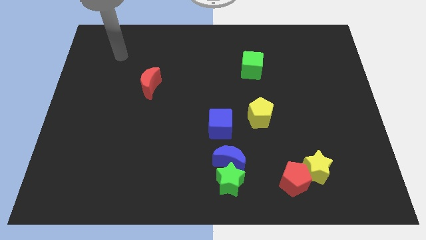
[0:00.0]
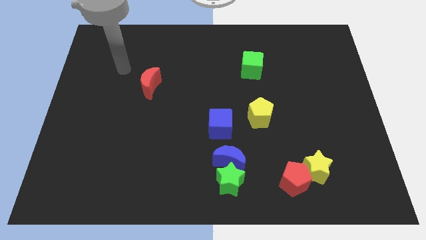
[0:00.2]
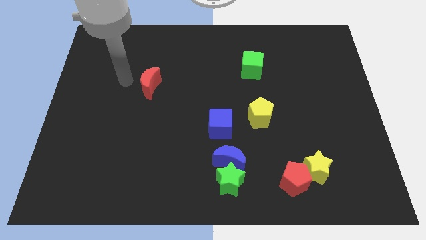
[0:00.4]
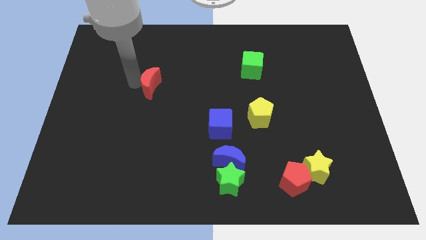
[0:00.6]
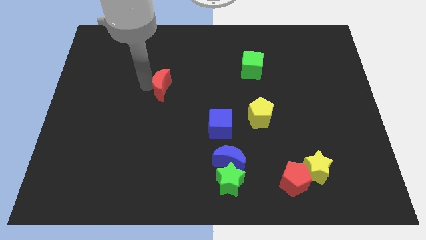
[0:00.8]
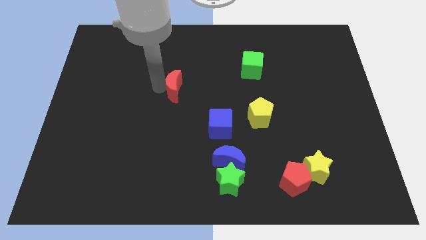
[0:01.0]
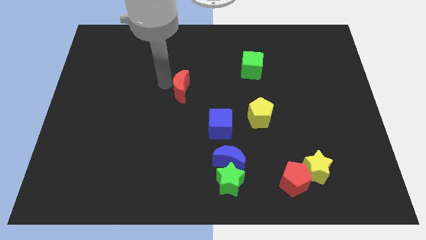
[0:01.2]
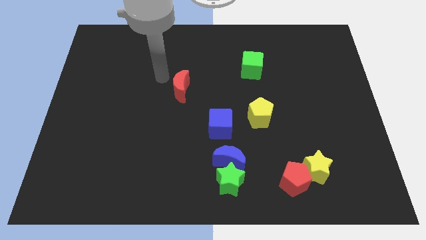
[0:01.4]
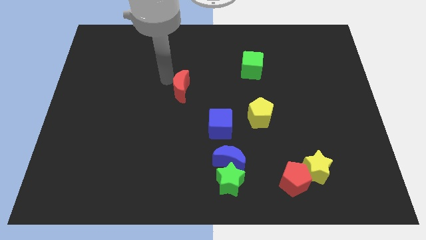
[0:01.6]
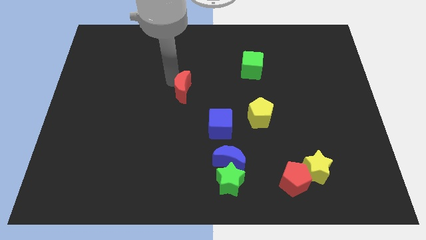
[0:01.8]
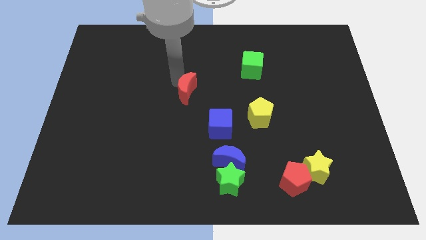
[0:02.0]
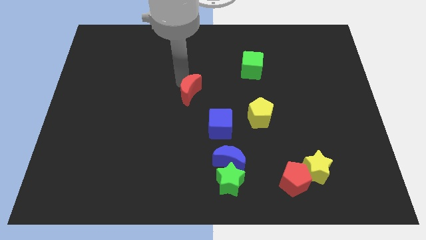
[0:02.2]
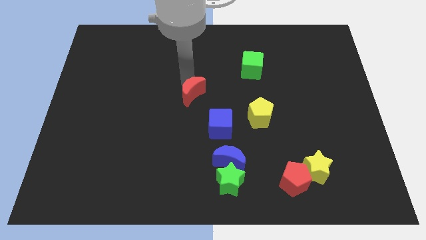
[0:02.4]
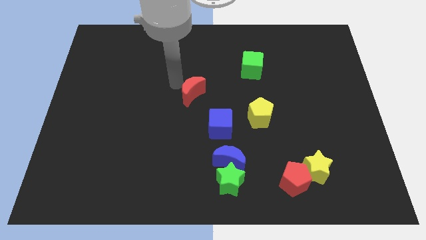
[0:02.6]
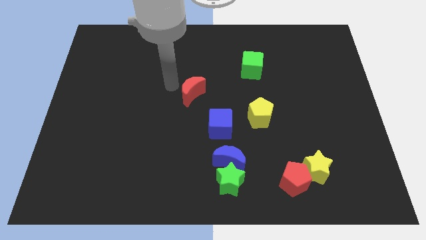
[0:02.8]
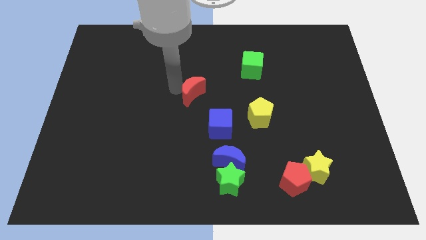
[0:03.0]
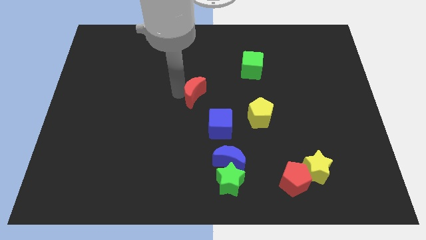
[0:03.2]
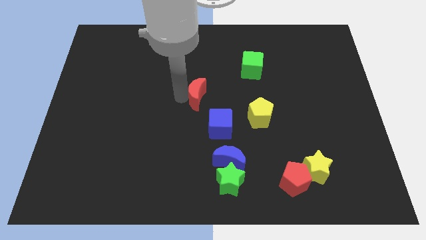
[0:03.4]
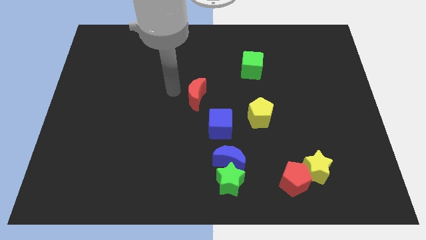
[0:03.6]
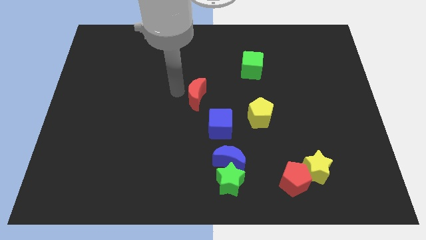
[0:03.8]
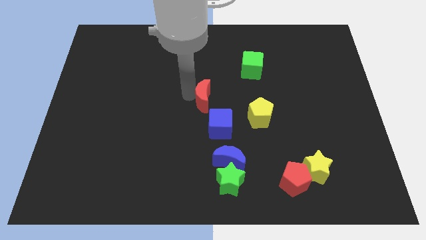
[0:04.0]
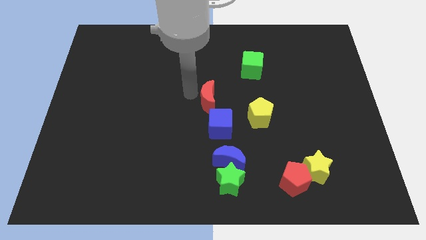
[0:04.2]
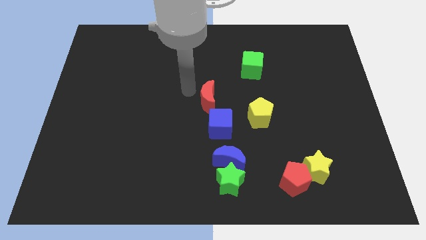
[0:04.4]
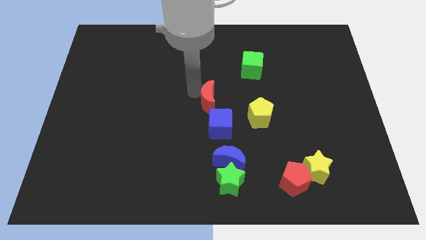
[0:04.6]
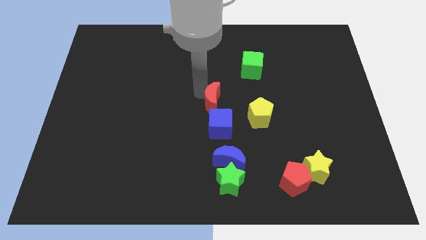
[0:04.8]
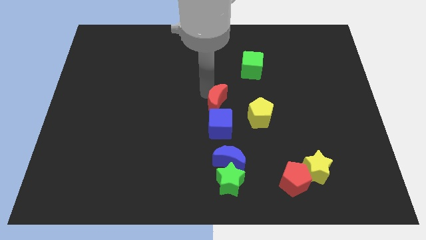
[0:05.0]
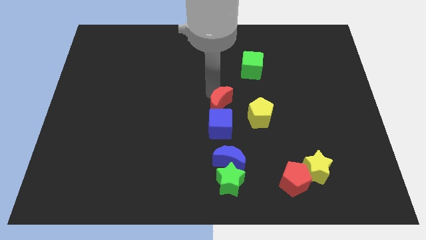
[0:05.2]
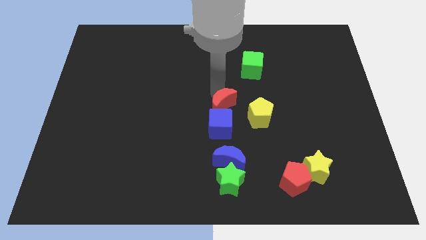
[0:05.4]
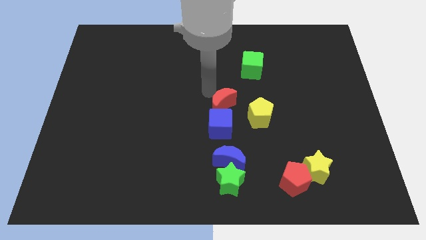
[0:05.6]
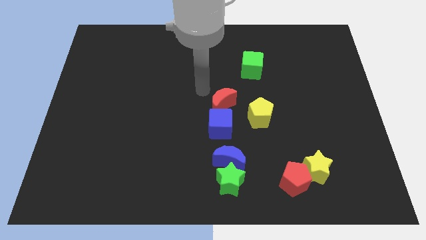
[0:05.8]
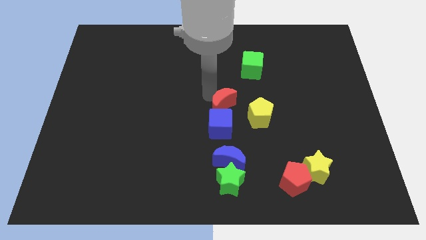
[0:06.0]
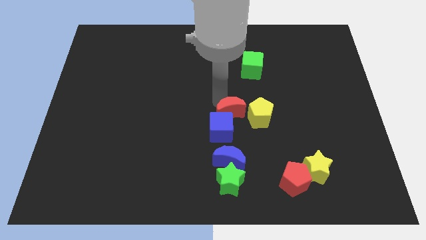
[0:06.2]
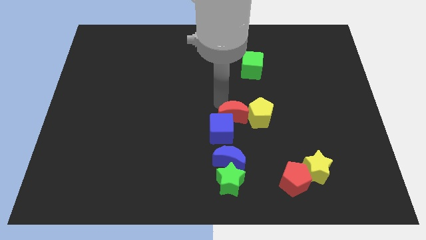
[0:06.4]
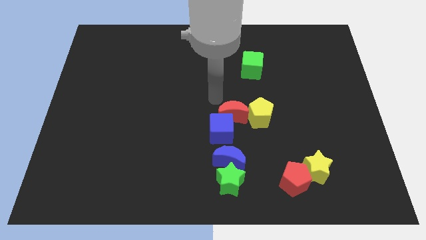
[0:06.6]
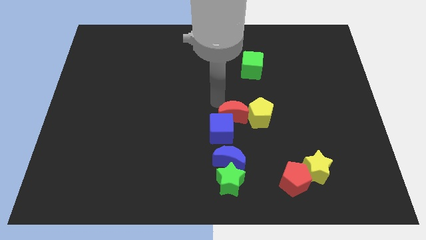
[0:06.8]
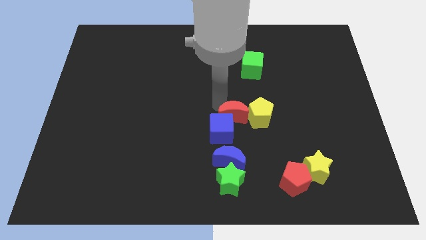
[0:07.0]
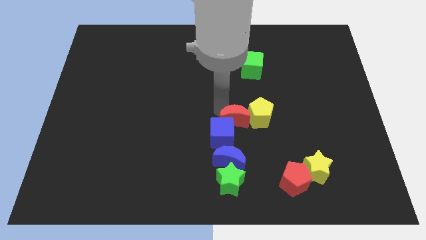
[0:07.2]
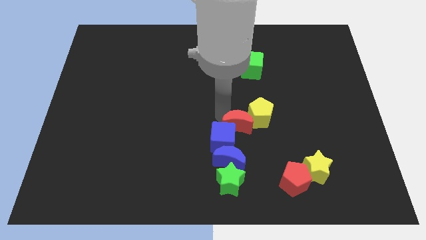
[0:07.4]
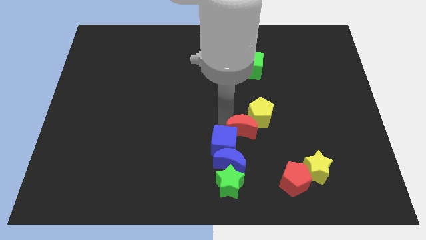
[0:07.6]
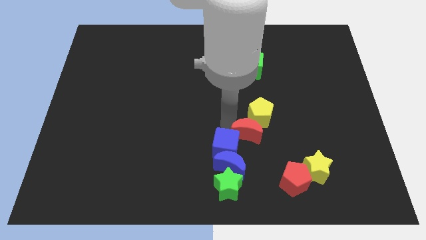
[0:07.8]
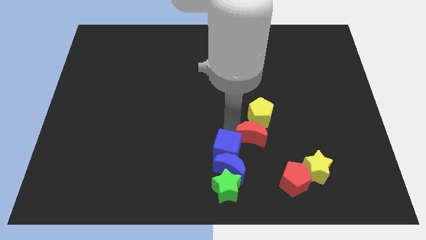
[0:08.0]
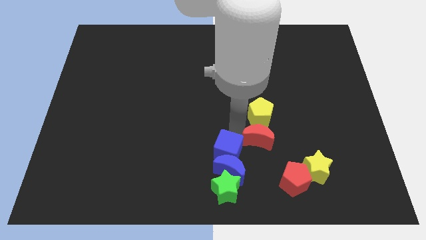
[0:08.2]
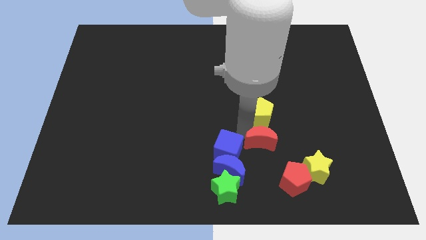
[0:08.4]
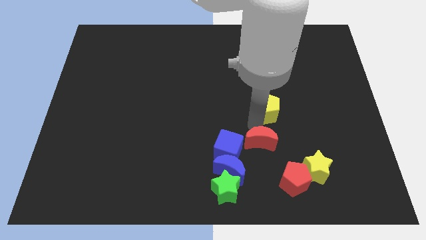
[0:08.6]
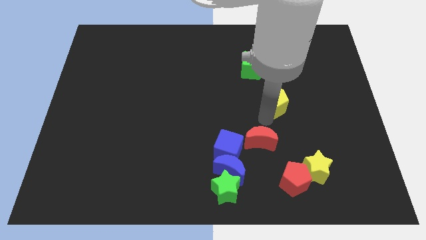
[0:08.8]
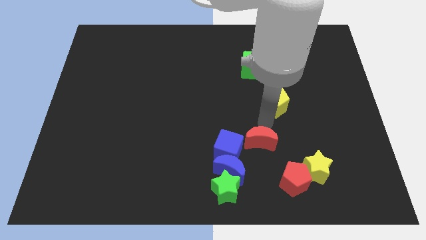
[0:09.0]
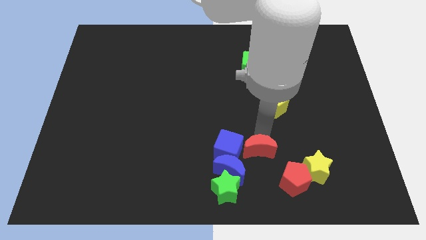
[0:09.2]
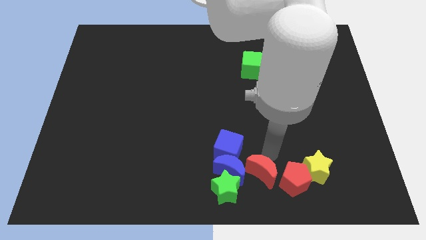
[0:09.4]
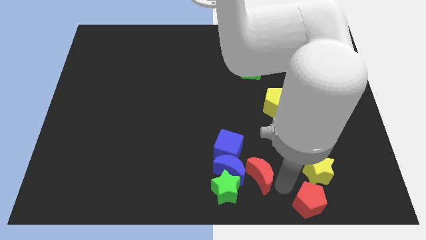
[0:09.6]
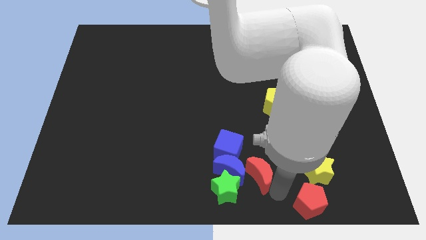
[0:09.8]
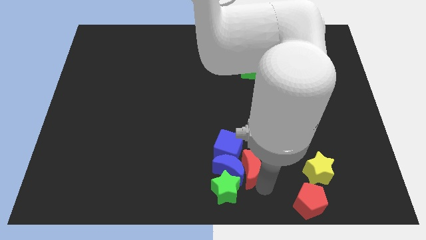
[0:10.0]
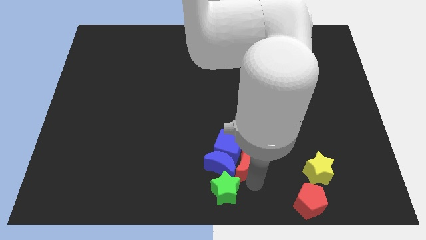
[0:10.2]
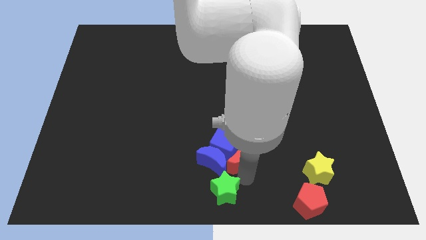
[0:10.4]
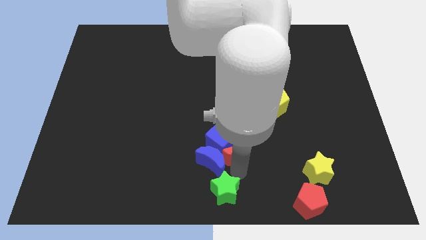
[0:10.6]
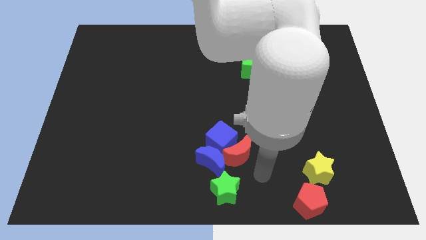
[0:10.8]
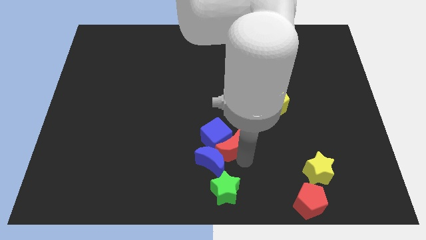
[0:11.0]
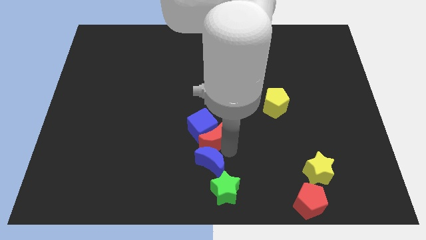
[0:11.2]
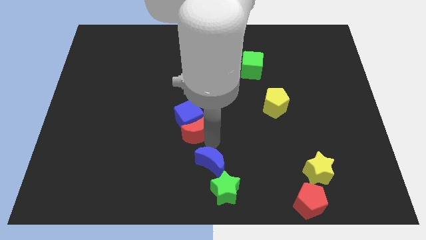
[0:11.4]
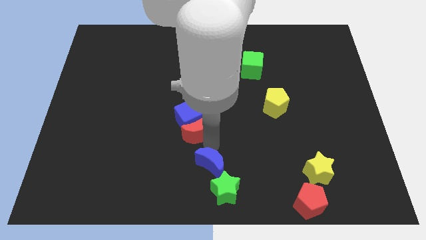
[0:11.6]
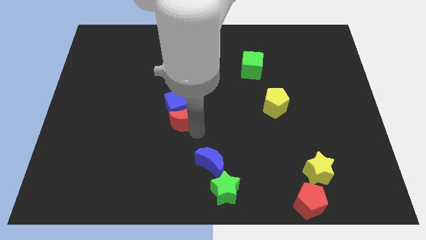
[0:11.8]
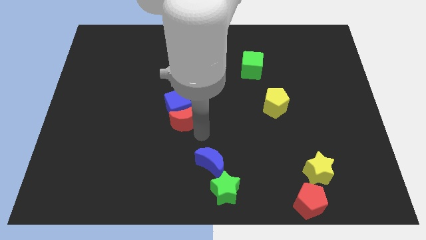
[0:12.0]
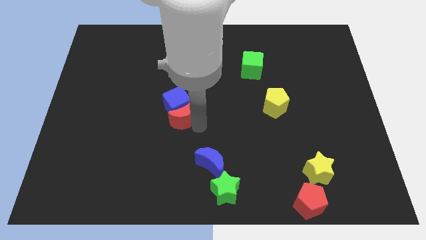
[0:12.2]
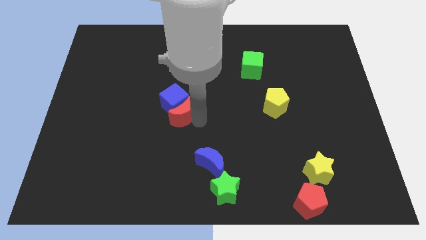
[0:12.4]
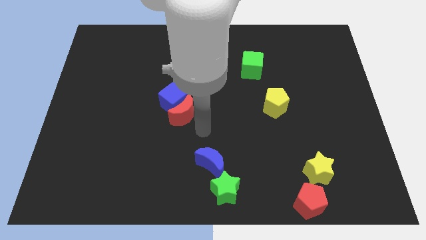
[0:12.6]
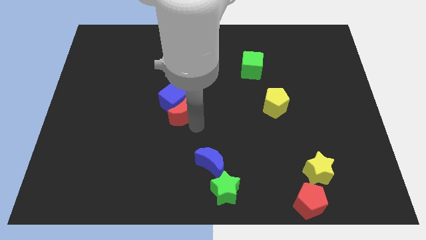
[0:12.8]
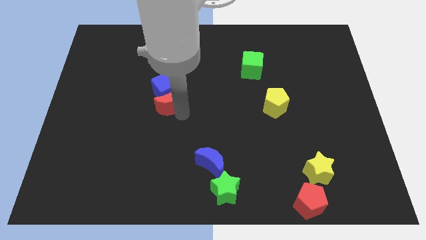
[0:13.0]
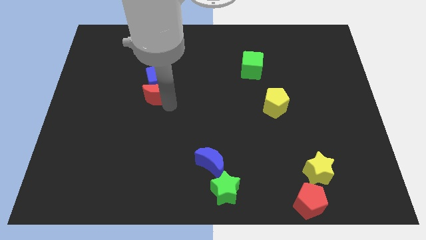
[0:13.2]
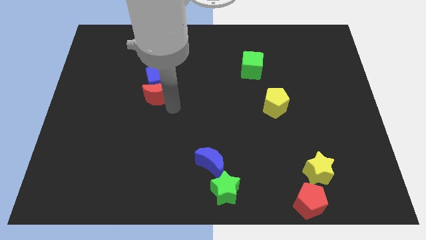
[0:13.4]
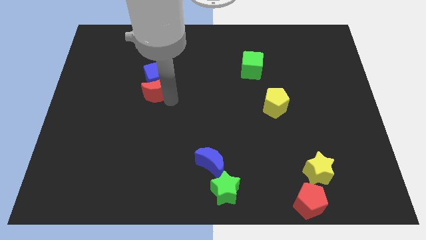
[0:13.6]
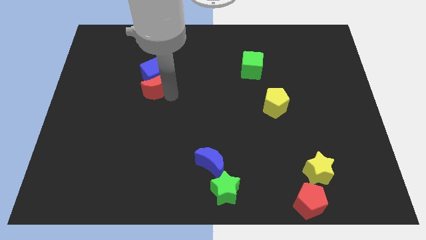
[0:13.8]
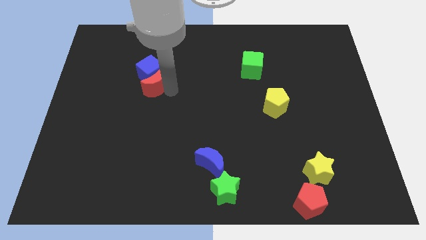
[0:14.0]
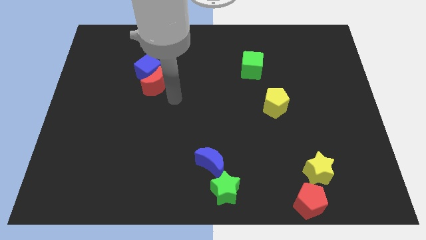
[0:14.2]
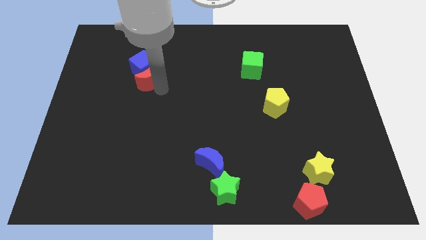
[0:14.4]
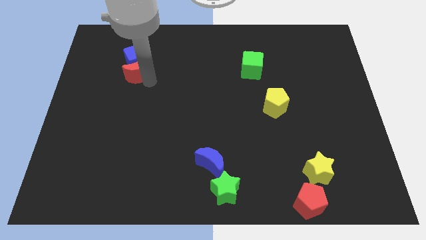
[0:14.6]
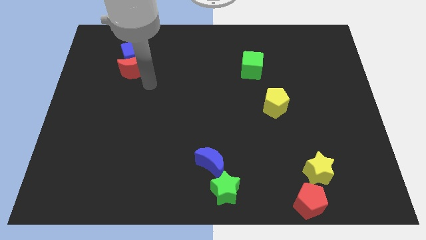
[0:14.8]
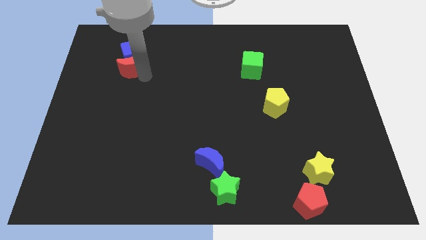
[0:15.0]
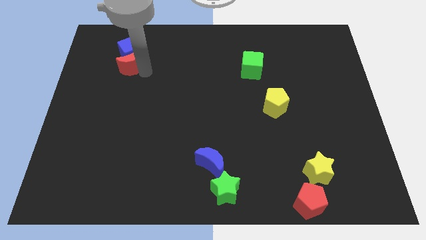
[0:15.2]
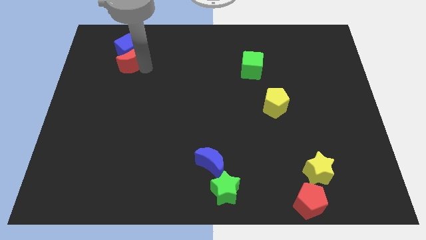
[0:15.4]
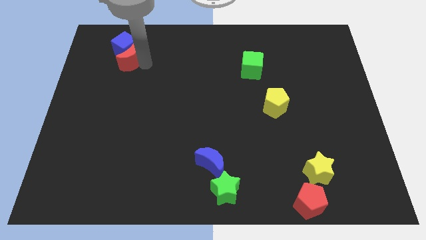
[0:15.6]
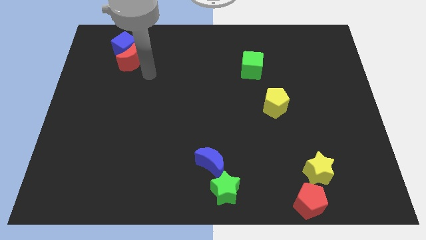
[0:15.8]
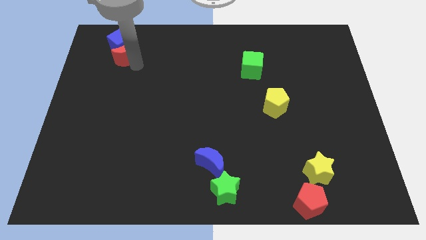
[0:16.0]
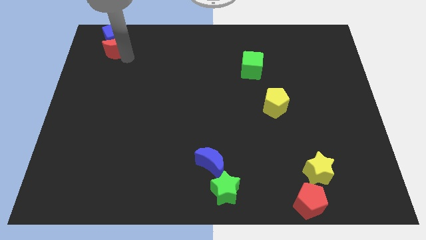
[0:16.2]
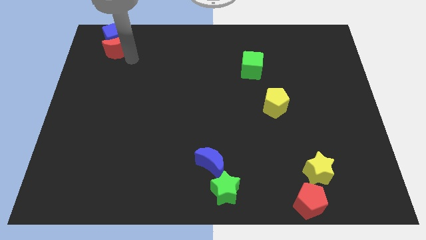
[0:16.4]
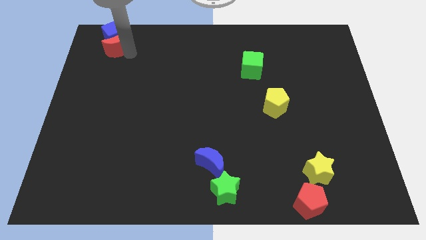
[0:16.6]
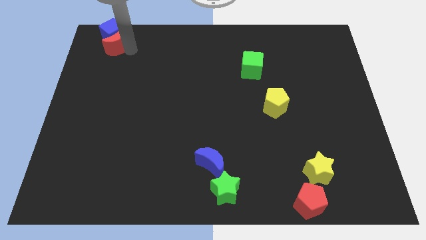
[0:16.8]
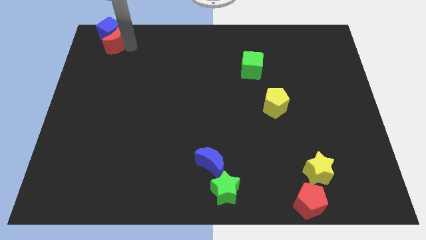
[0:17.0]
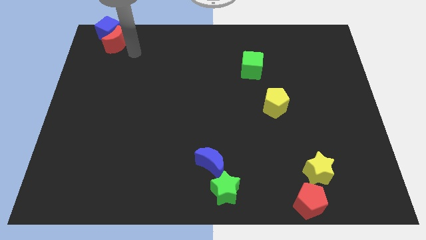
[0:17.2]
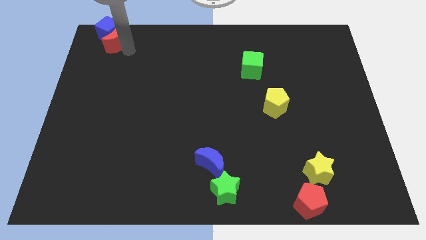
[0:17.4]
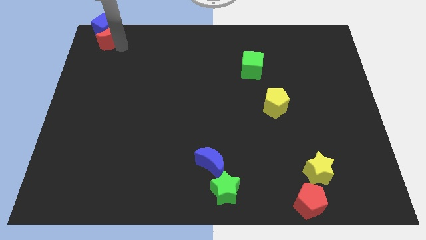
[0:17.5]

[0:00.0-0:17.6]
slide the red moon to the top left
